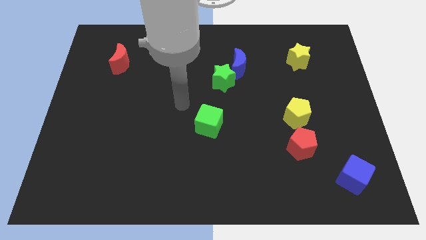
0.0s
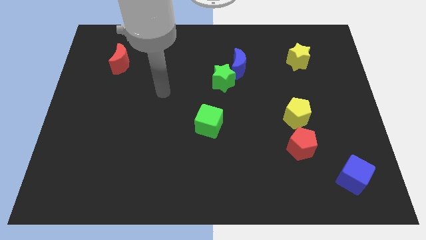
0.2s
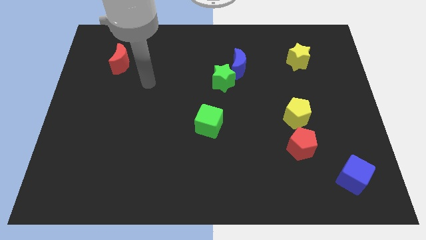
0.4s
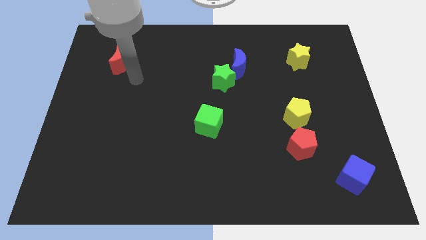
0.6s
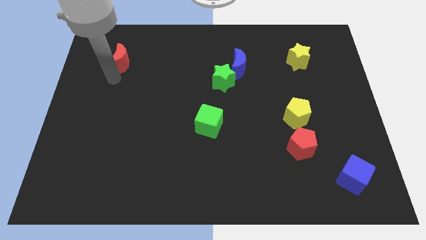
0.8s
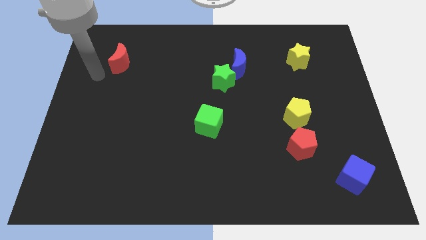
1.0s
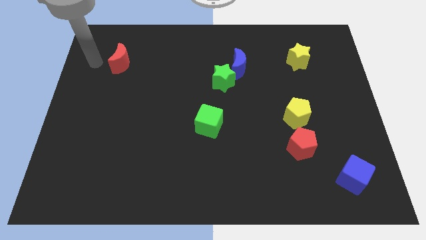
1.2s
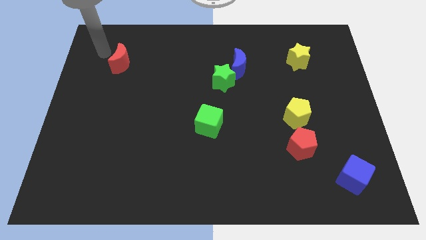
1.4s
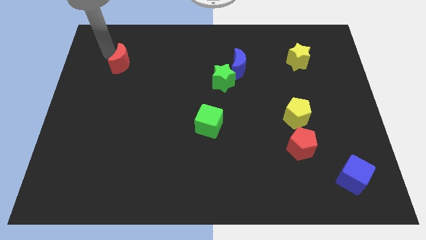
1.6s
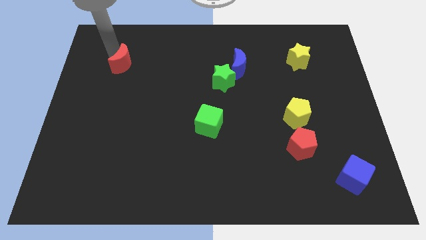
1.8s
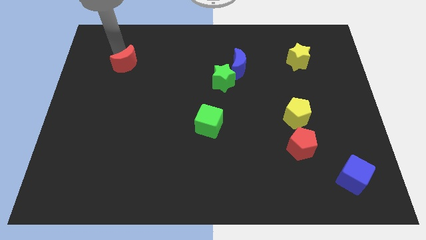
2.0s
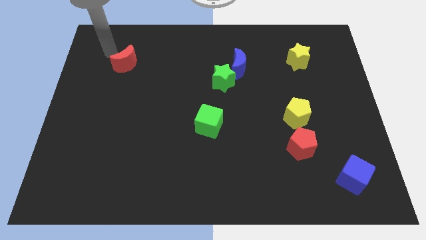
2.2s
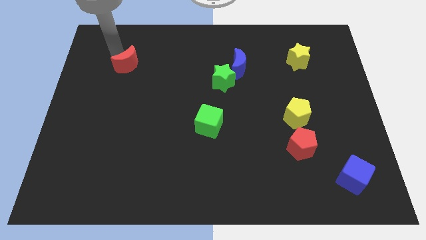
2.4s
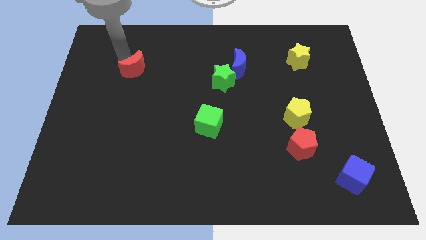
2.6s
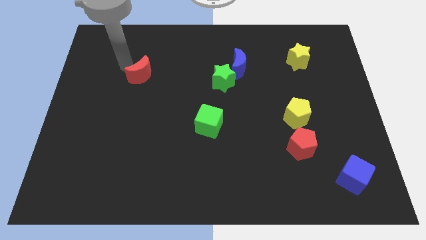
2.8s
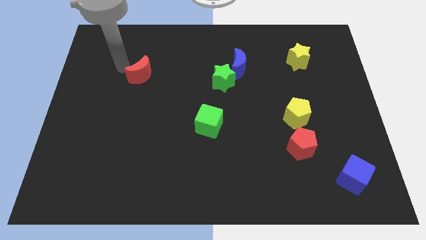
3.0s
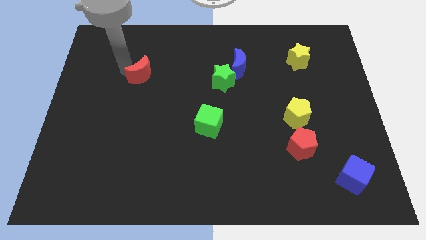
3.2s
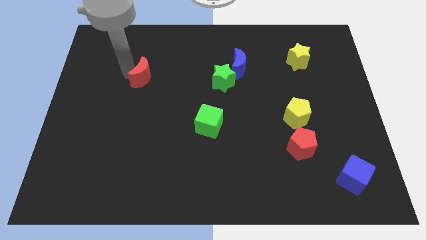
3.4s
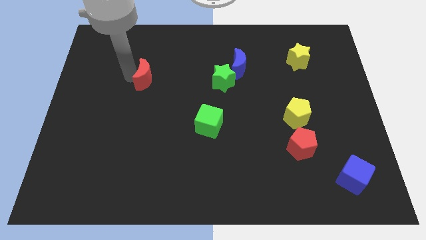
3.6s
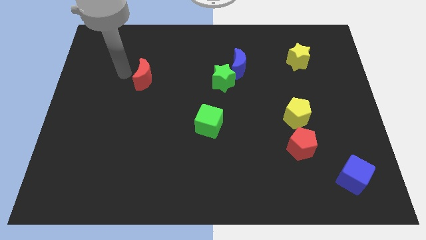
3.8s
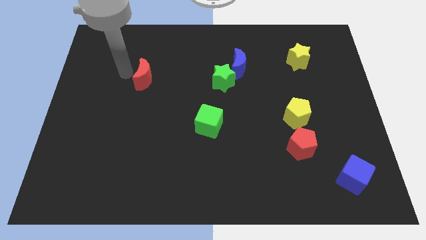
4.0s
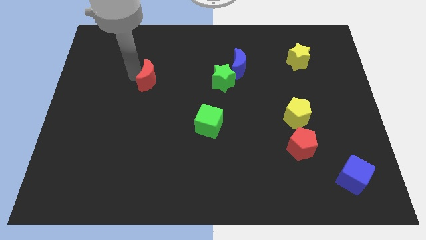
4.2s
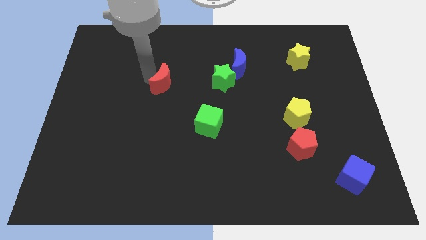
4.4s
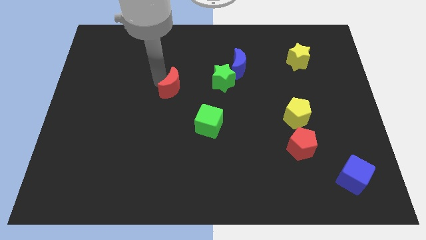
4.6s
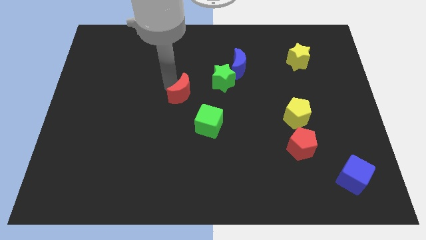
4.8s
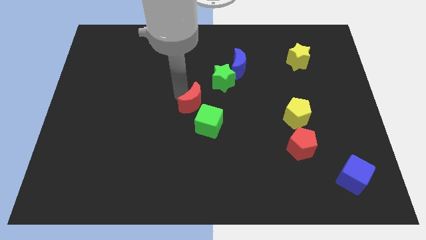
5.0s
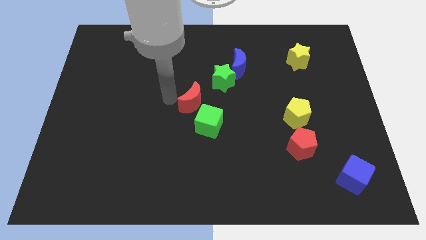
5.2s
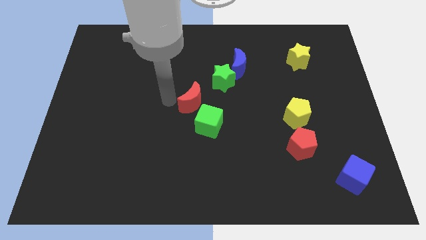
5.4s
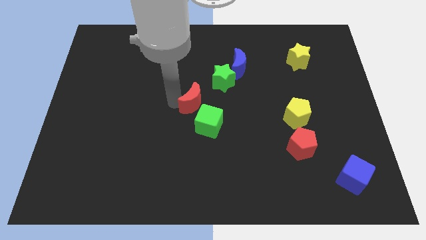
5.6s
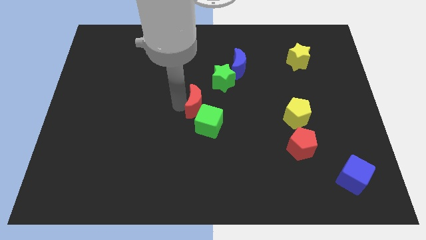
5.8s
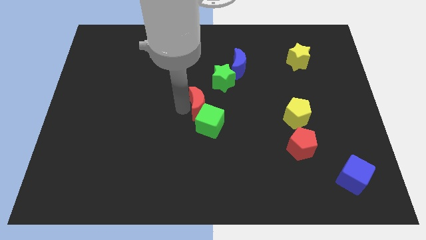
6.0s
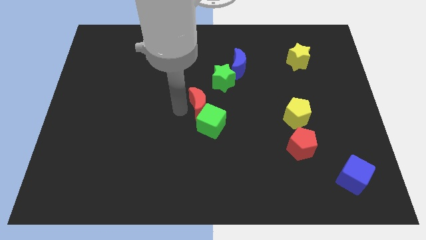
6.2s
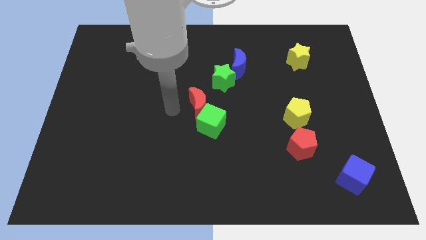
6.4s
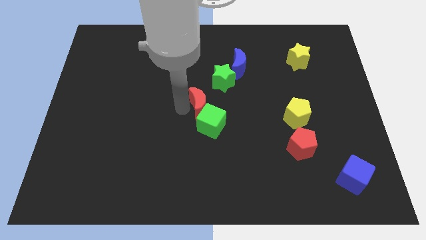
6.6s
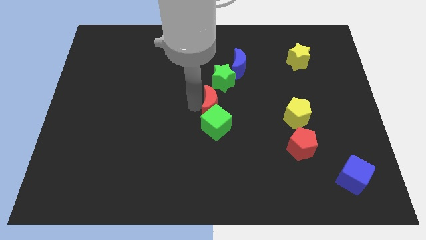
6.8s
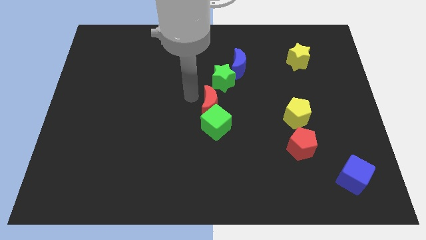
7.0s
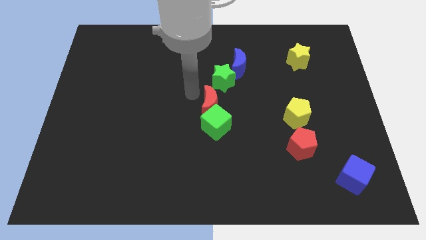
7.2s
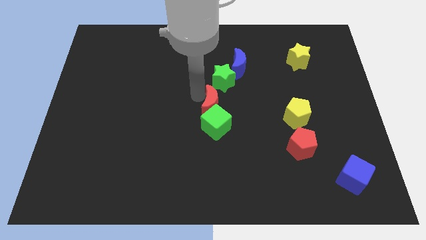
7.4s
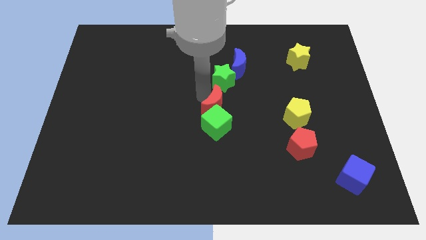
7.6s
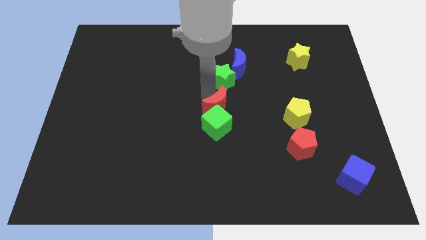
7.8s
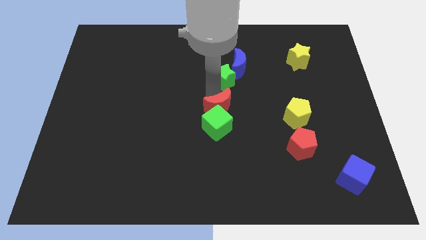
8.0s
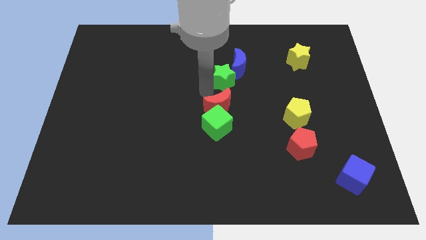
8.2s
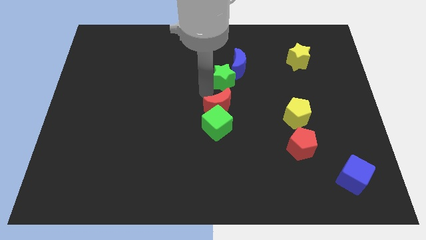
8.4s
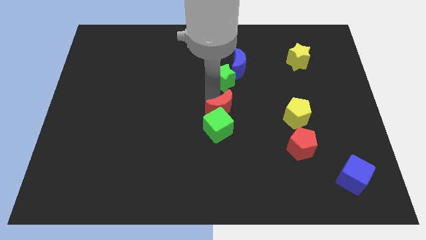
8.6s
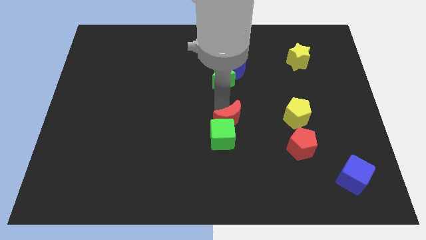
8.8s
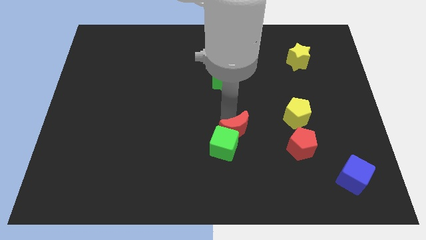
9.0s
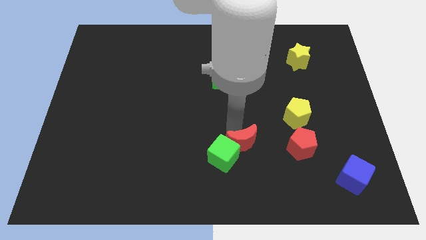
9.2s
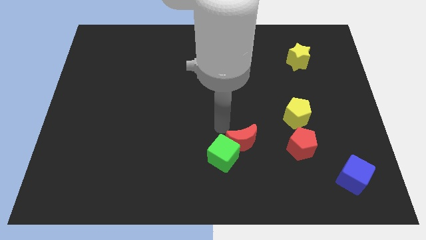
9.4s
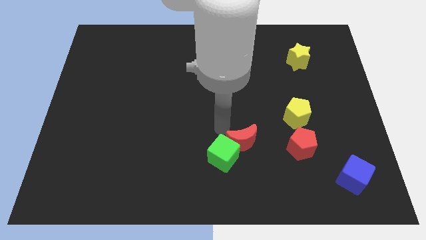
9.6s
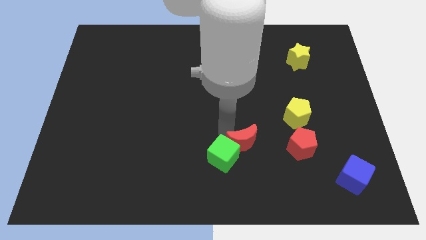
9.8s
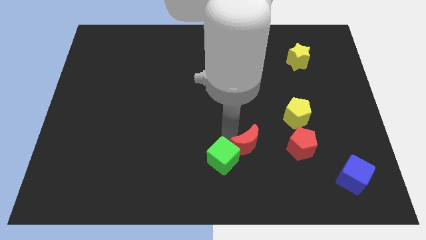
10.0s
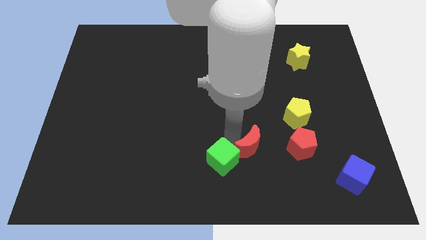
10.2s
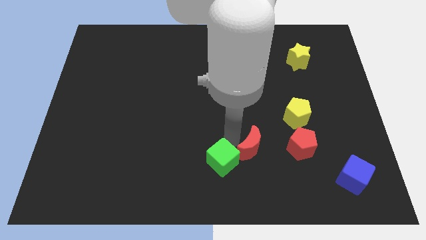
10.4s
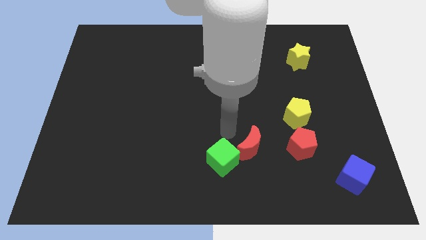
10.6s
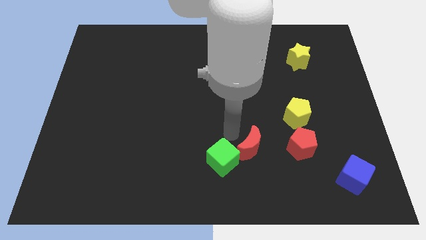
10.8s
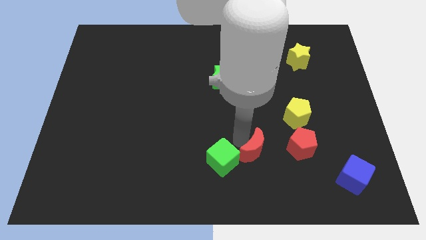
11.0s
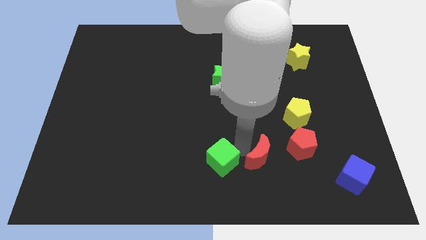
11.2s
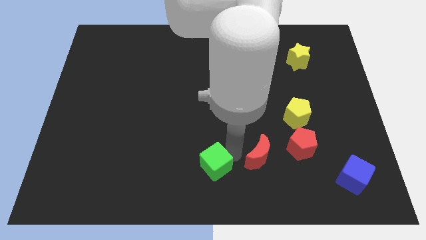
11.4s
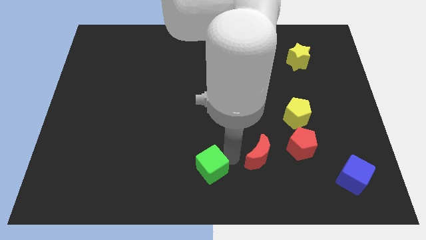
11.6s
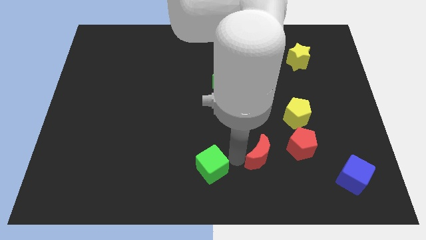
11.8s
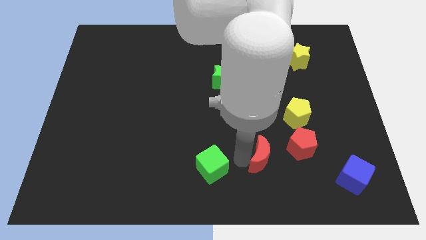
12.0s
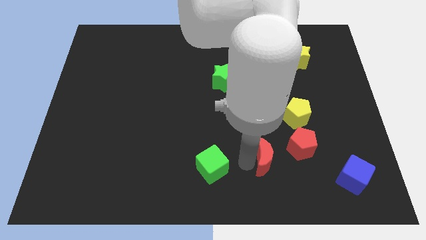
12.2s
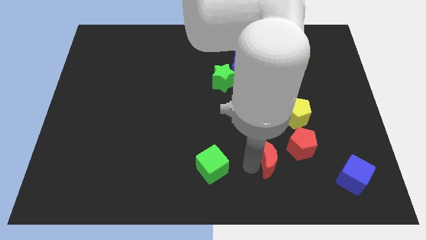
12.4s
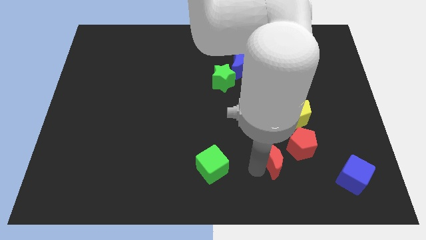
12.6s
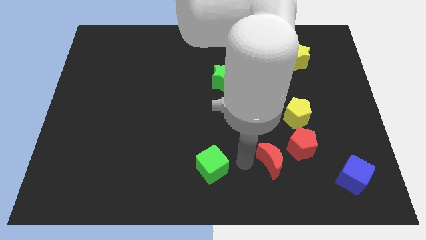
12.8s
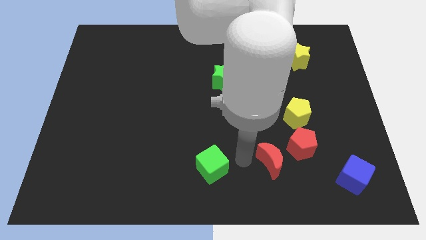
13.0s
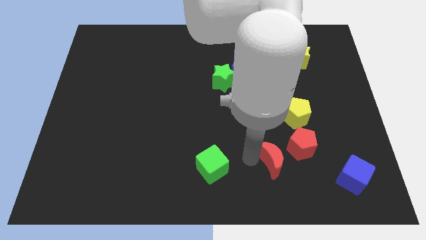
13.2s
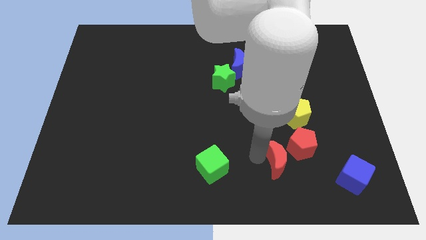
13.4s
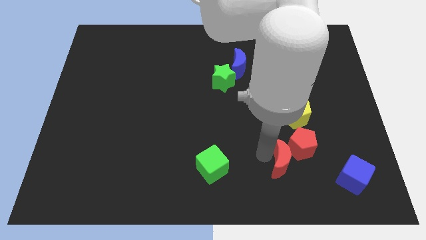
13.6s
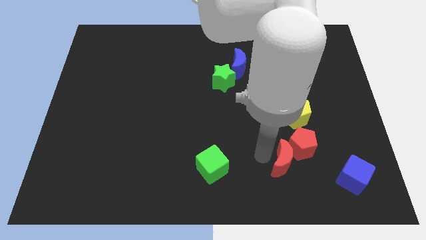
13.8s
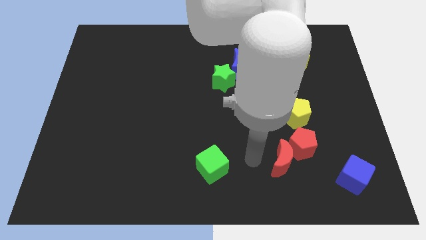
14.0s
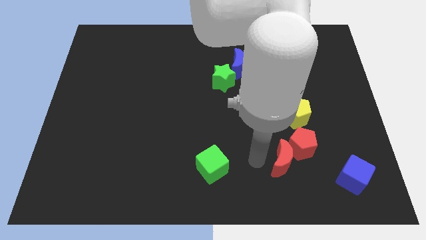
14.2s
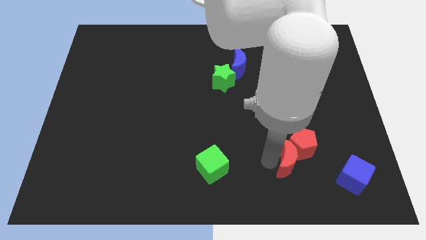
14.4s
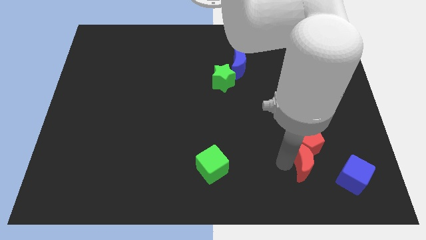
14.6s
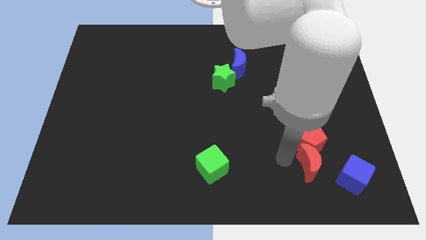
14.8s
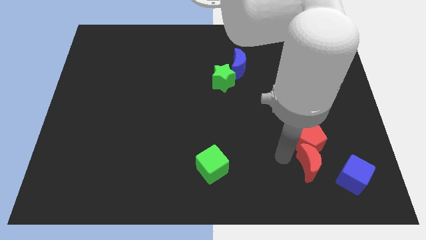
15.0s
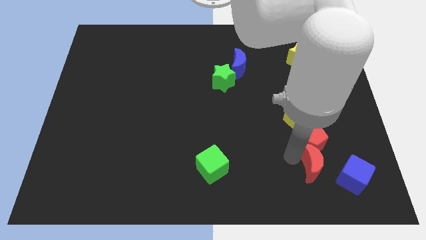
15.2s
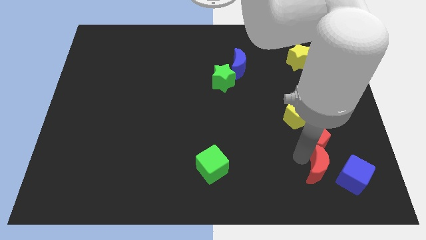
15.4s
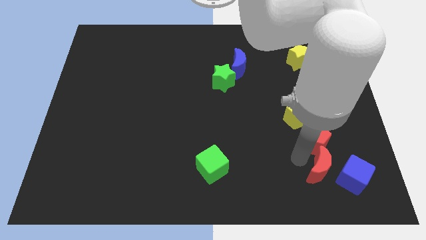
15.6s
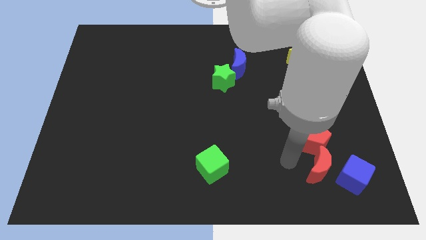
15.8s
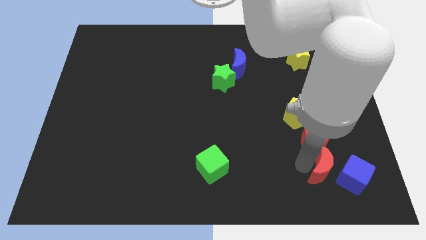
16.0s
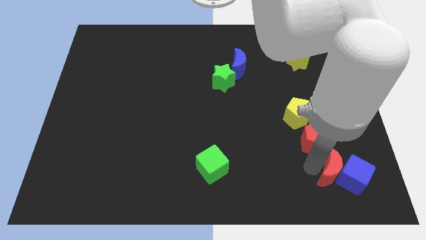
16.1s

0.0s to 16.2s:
push the red moon next to the blue cube

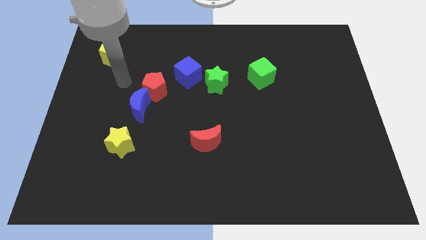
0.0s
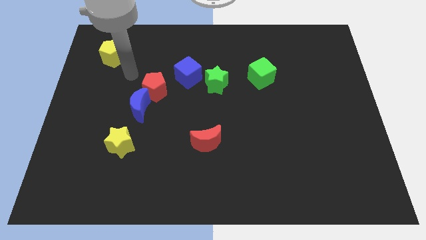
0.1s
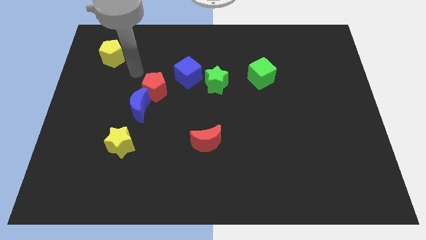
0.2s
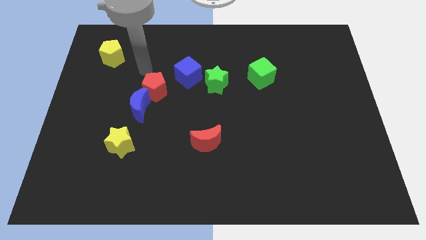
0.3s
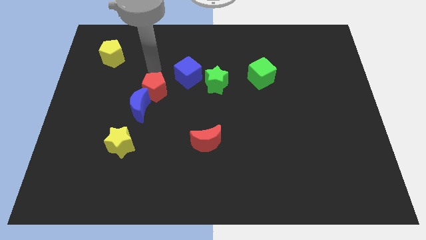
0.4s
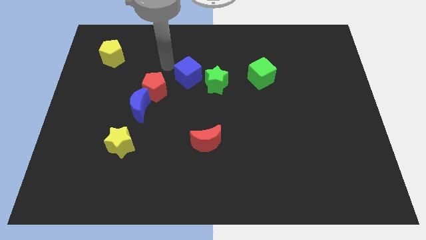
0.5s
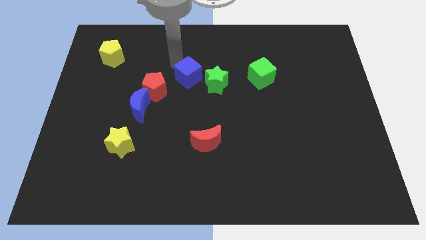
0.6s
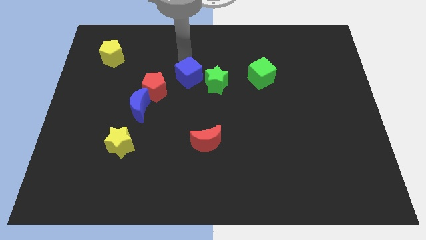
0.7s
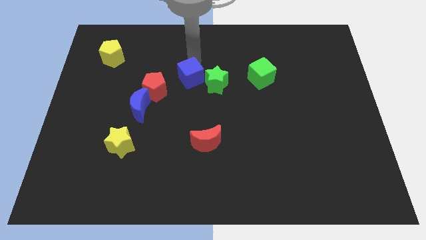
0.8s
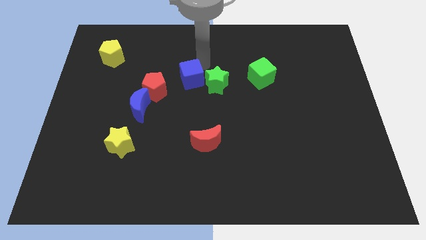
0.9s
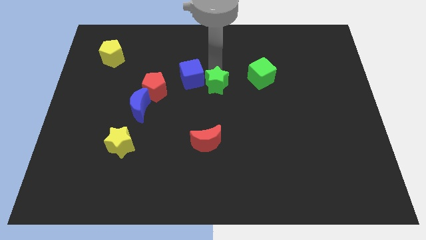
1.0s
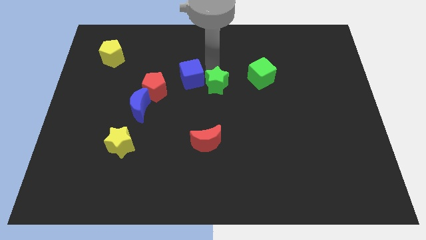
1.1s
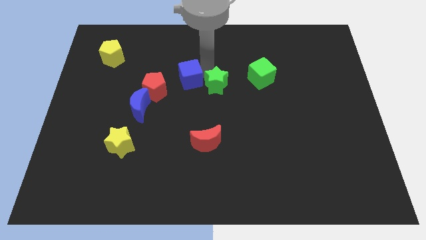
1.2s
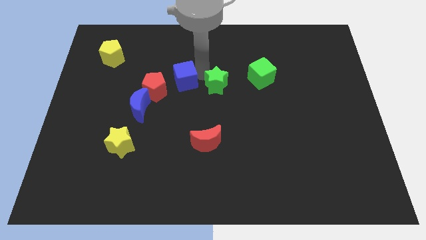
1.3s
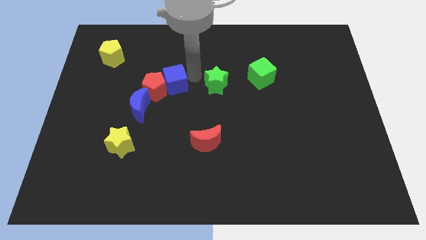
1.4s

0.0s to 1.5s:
put the blue cube to the red pentagon
